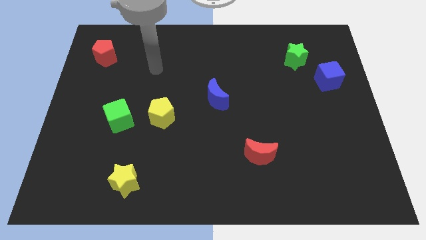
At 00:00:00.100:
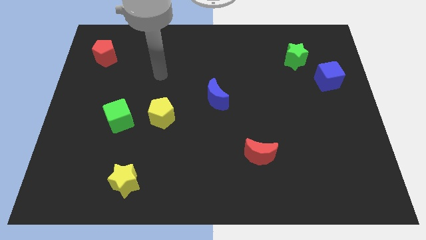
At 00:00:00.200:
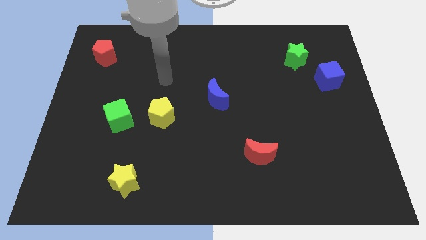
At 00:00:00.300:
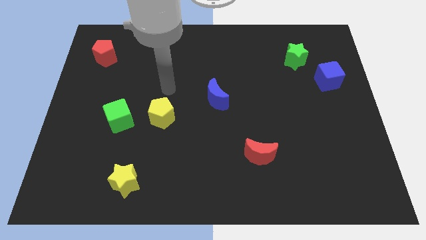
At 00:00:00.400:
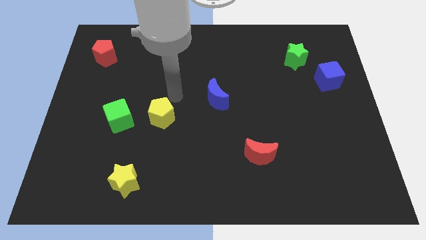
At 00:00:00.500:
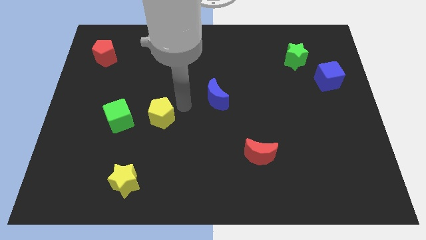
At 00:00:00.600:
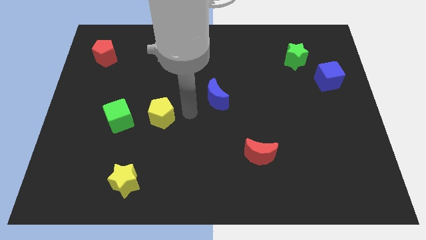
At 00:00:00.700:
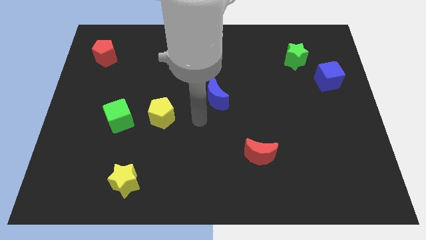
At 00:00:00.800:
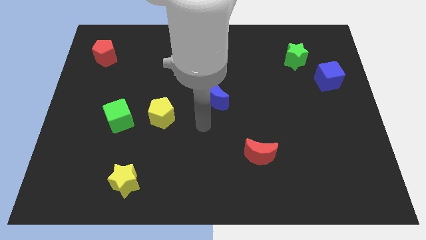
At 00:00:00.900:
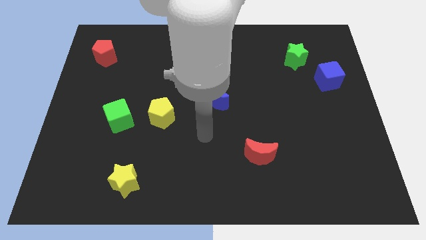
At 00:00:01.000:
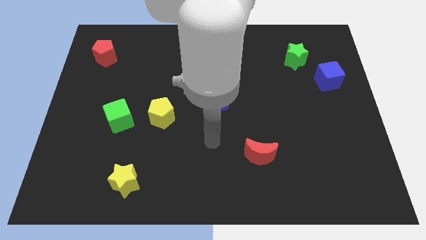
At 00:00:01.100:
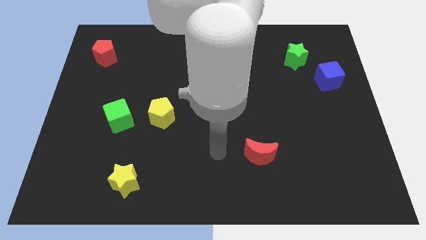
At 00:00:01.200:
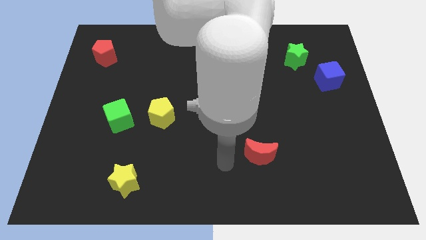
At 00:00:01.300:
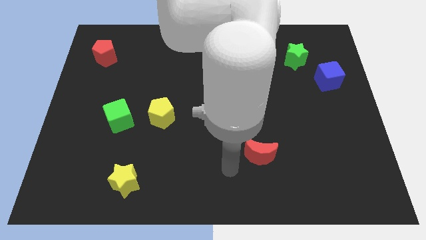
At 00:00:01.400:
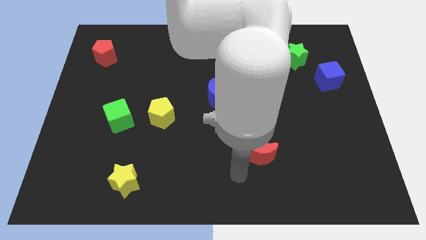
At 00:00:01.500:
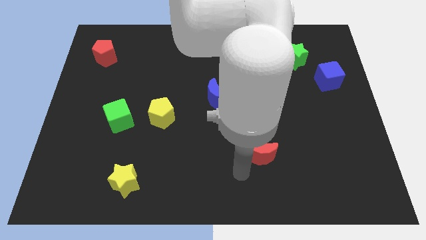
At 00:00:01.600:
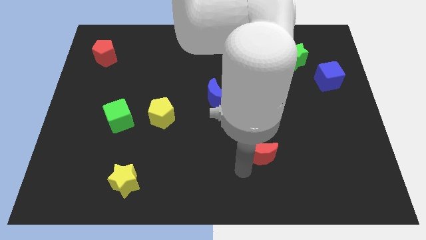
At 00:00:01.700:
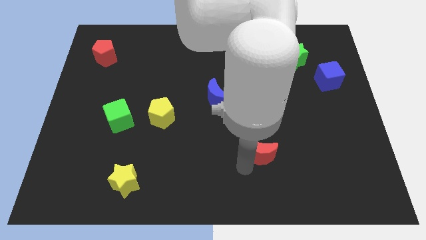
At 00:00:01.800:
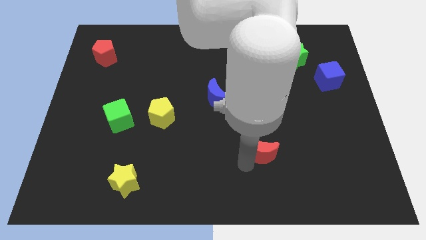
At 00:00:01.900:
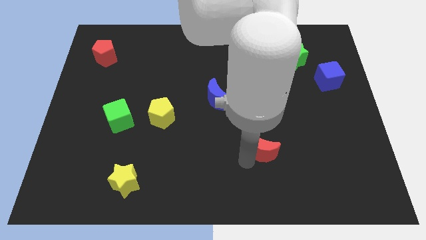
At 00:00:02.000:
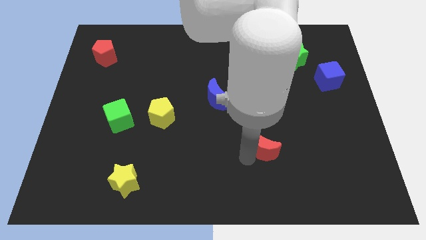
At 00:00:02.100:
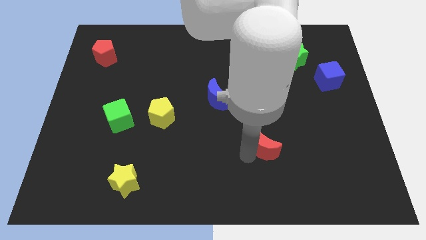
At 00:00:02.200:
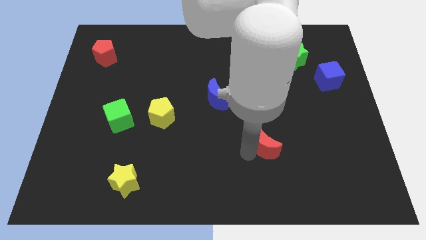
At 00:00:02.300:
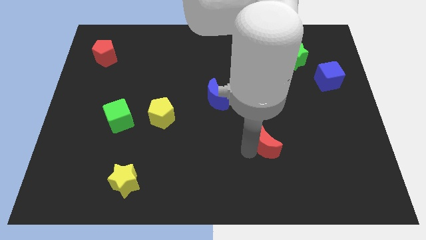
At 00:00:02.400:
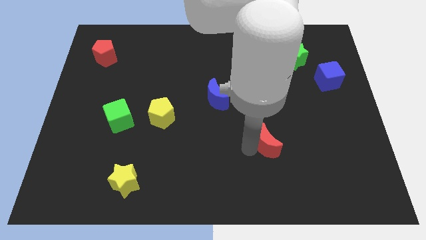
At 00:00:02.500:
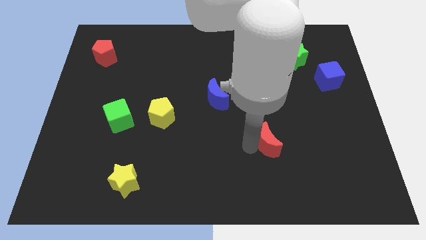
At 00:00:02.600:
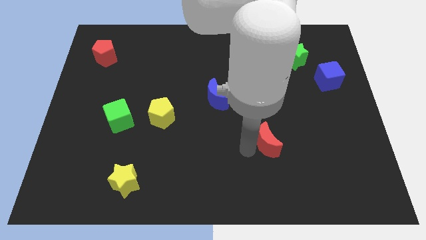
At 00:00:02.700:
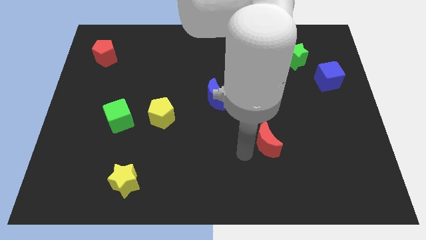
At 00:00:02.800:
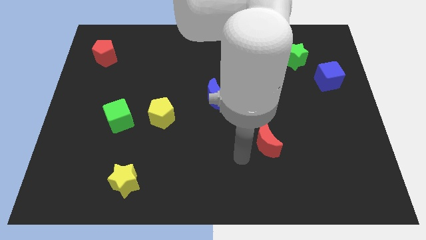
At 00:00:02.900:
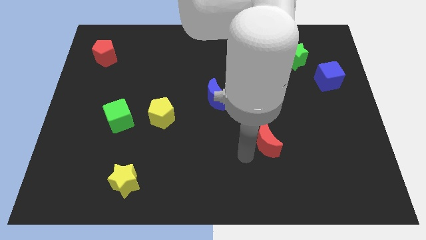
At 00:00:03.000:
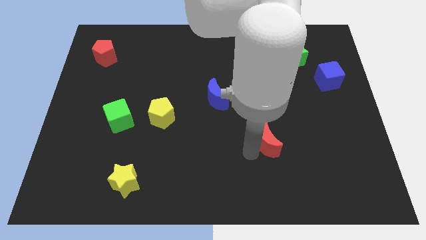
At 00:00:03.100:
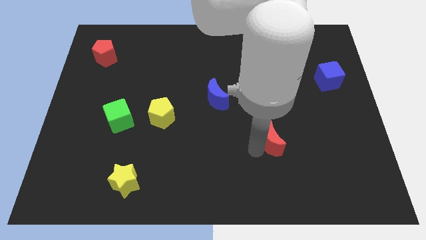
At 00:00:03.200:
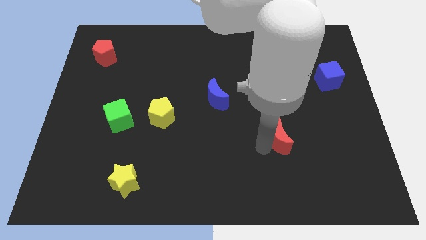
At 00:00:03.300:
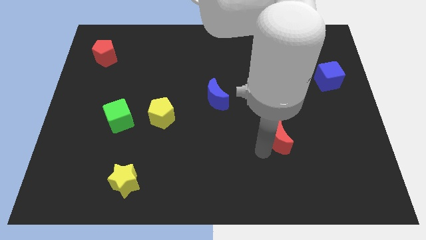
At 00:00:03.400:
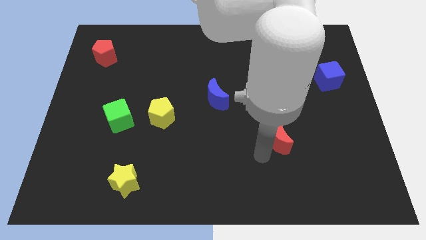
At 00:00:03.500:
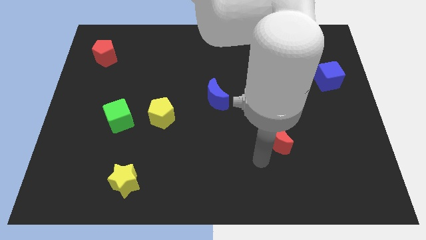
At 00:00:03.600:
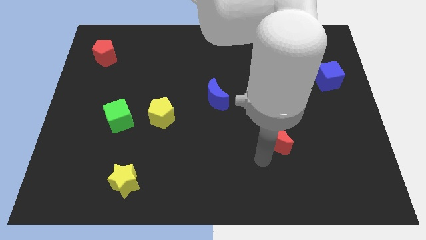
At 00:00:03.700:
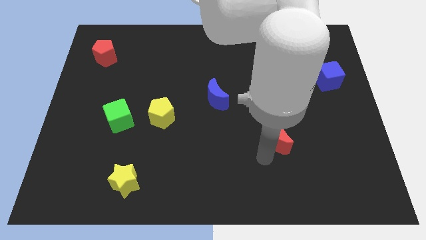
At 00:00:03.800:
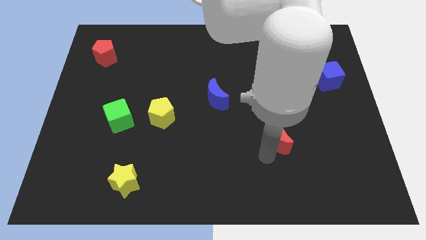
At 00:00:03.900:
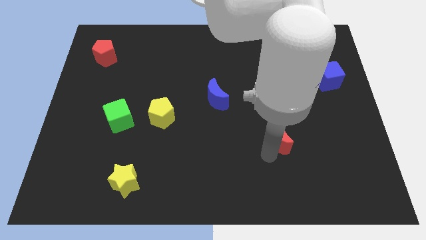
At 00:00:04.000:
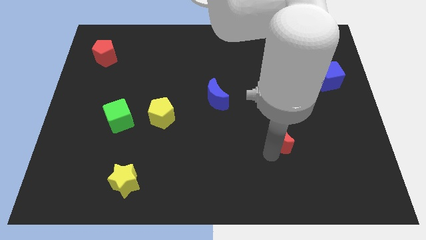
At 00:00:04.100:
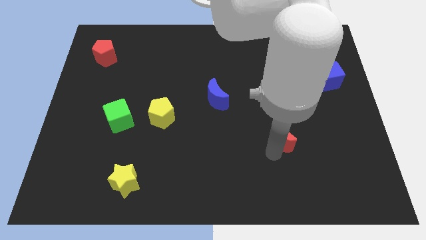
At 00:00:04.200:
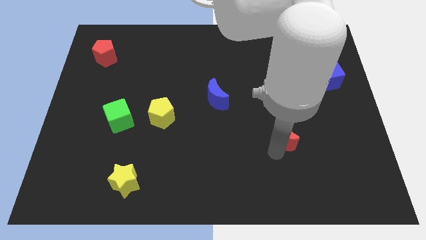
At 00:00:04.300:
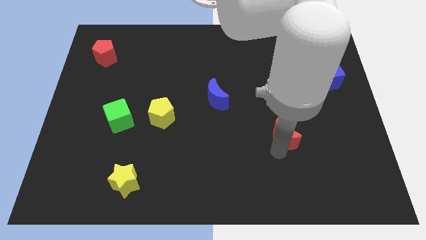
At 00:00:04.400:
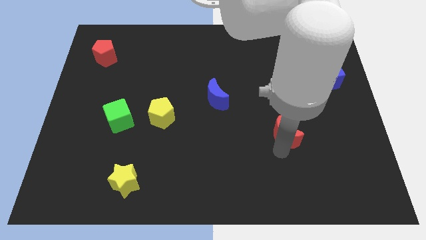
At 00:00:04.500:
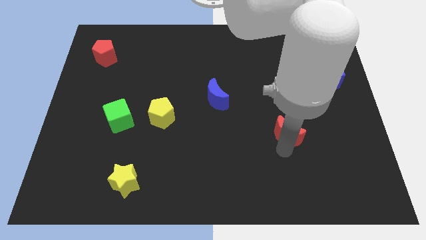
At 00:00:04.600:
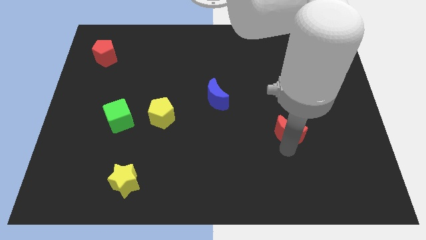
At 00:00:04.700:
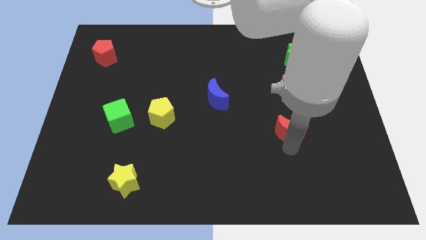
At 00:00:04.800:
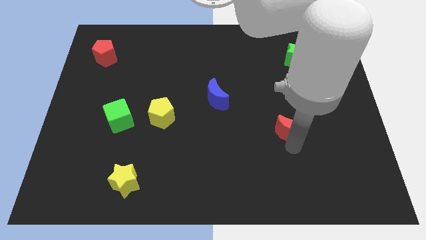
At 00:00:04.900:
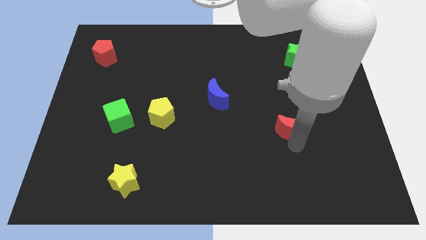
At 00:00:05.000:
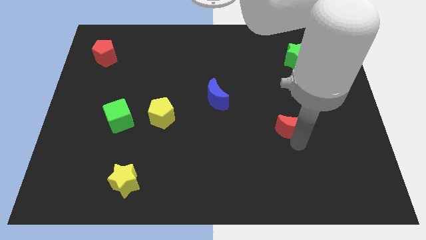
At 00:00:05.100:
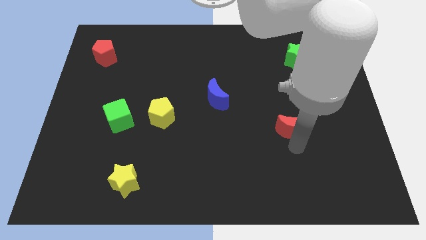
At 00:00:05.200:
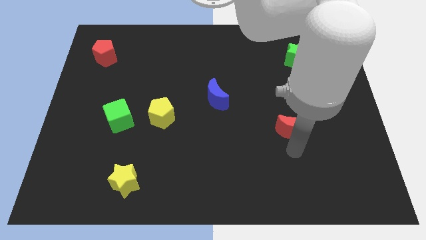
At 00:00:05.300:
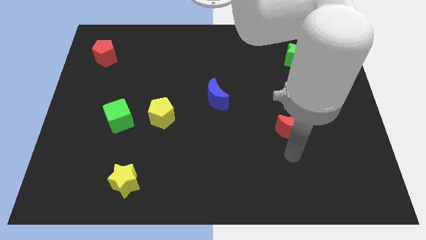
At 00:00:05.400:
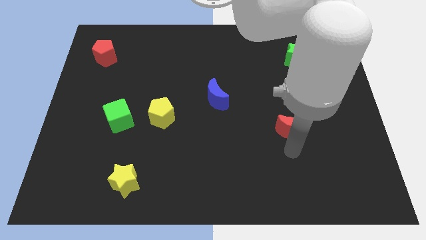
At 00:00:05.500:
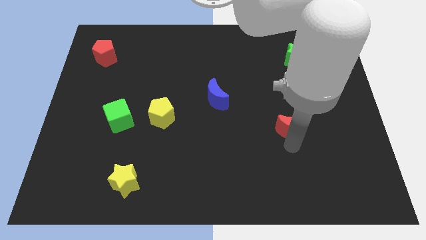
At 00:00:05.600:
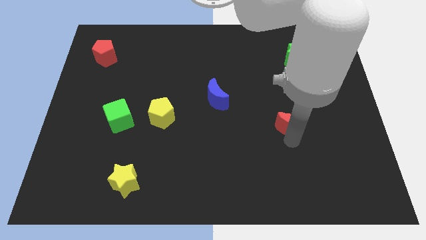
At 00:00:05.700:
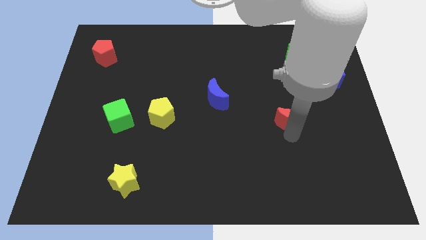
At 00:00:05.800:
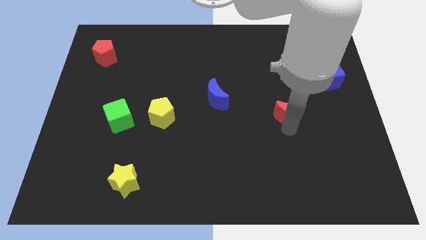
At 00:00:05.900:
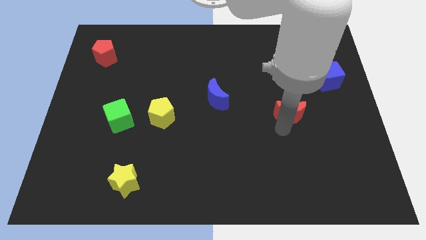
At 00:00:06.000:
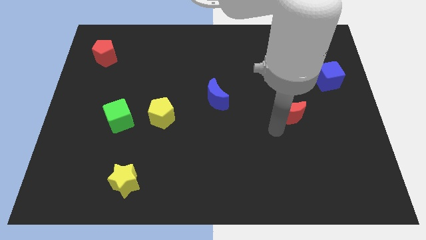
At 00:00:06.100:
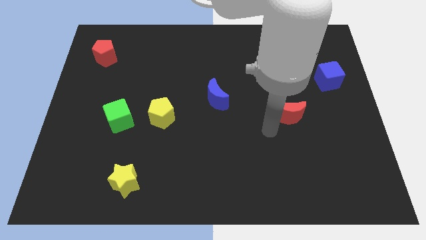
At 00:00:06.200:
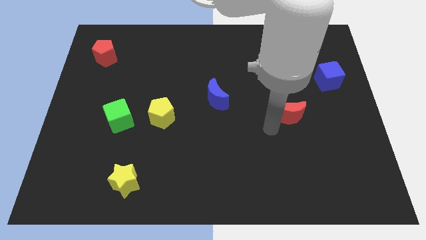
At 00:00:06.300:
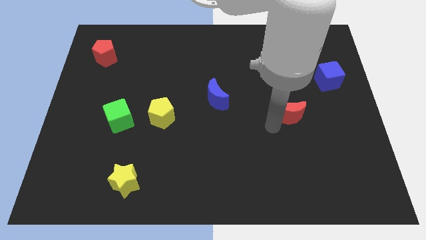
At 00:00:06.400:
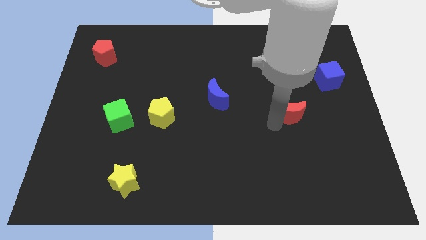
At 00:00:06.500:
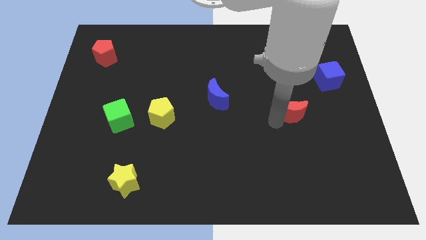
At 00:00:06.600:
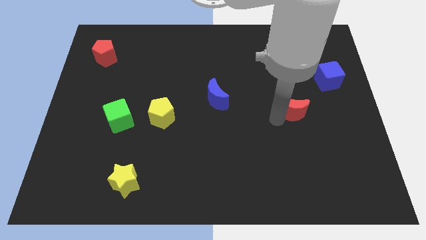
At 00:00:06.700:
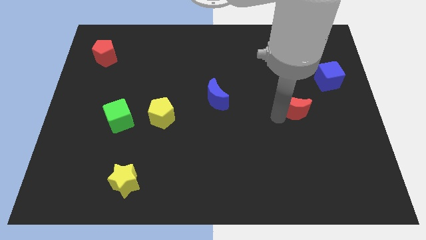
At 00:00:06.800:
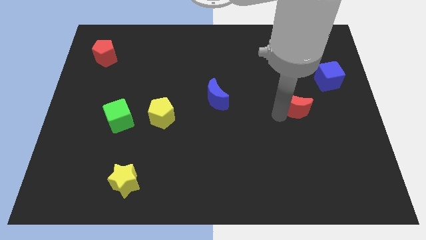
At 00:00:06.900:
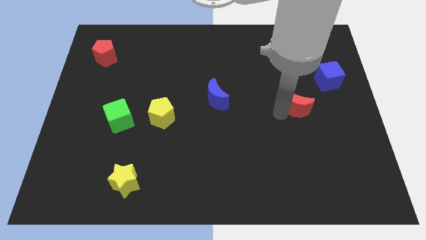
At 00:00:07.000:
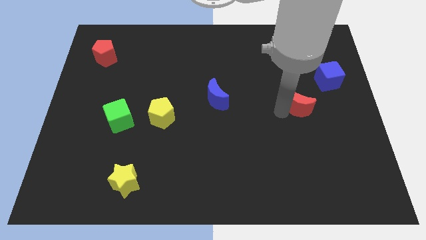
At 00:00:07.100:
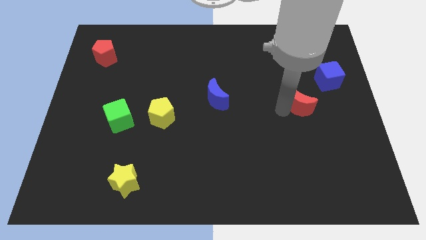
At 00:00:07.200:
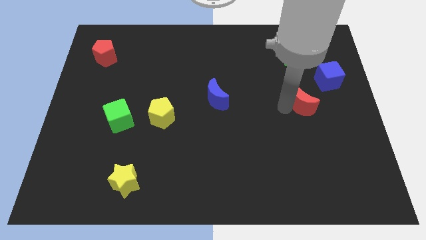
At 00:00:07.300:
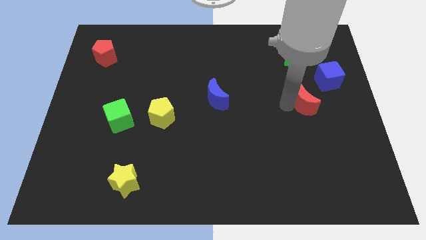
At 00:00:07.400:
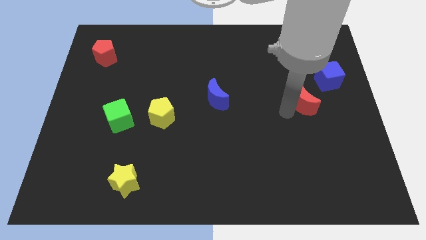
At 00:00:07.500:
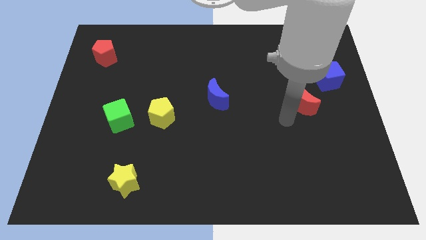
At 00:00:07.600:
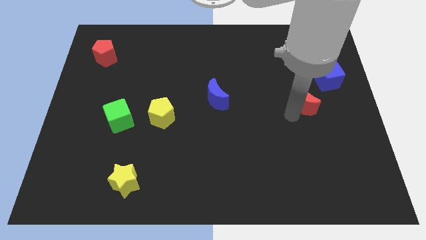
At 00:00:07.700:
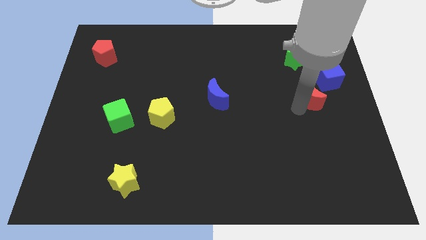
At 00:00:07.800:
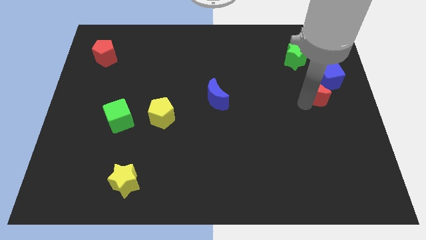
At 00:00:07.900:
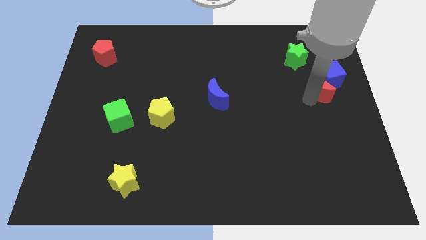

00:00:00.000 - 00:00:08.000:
push the red moon close to the blue cube
